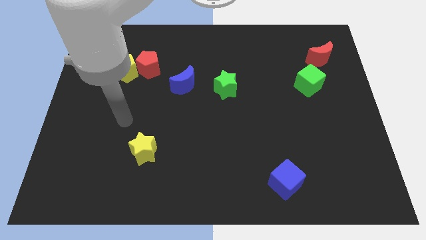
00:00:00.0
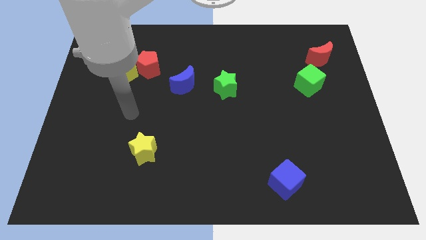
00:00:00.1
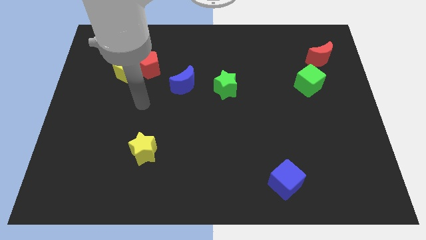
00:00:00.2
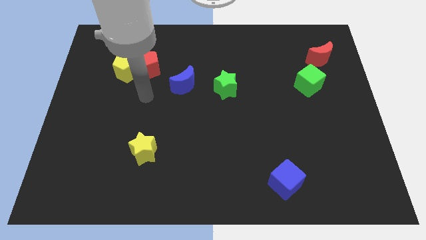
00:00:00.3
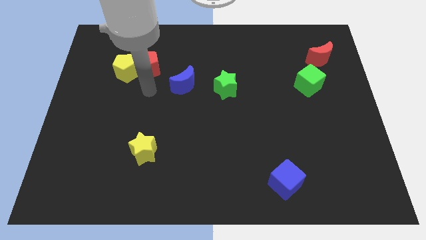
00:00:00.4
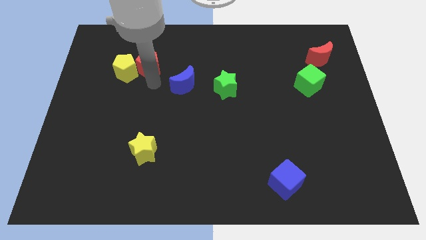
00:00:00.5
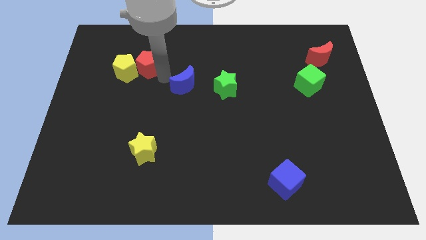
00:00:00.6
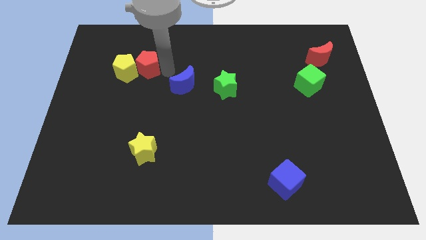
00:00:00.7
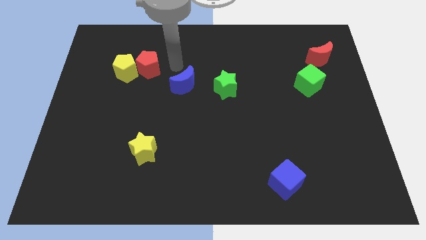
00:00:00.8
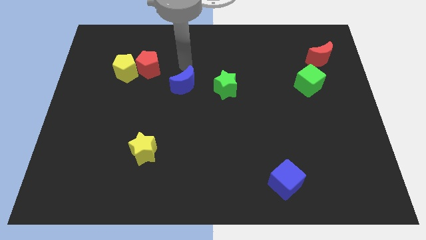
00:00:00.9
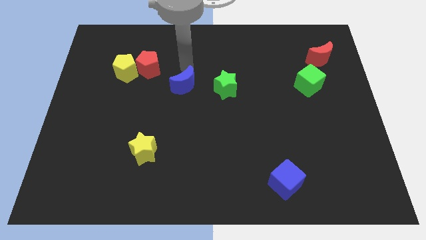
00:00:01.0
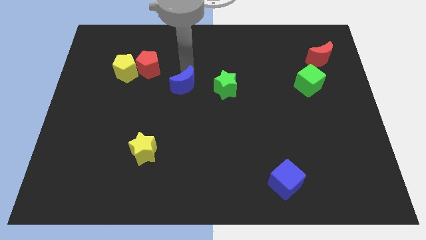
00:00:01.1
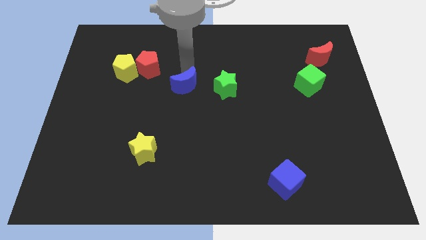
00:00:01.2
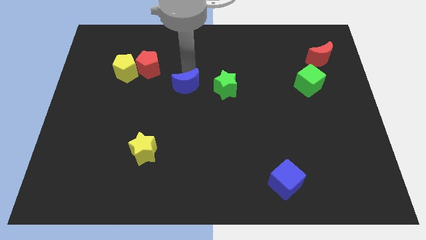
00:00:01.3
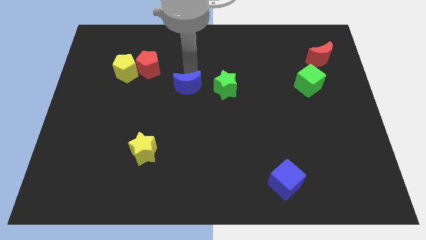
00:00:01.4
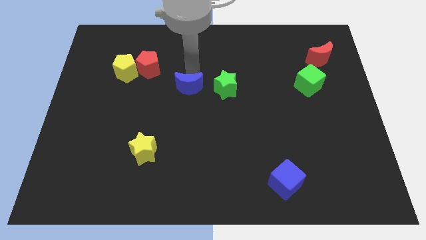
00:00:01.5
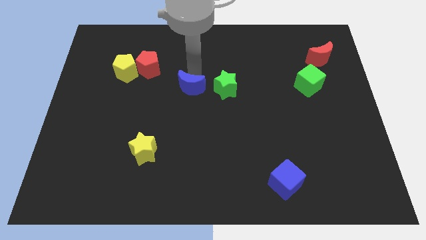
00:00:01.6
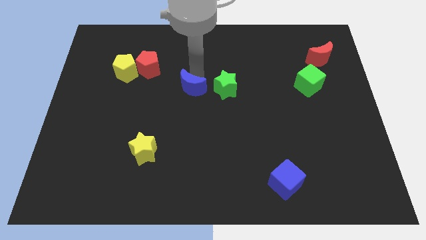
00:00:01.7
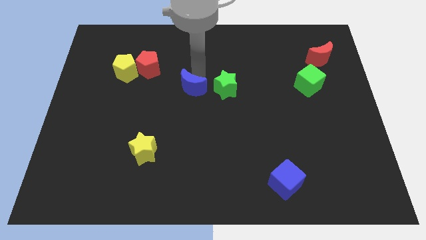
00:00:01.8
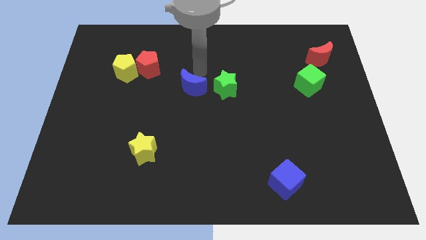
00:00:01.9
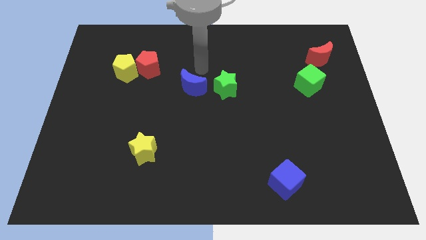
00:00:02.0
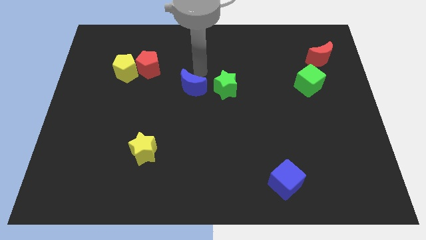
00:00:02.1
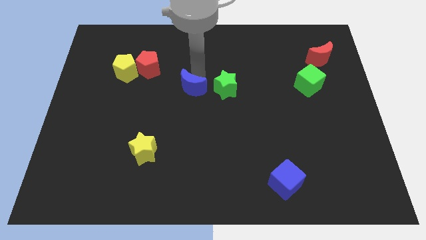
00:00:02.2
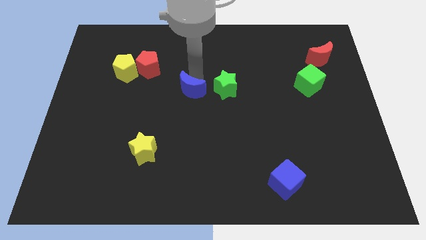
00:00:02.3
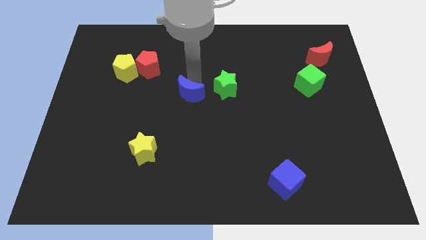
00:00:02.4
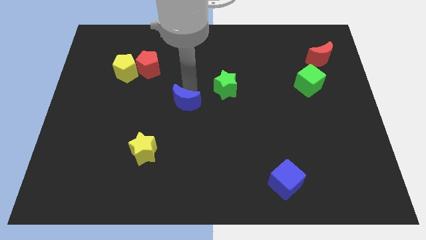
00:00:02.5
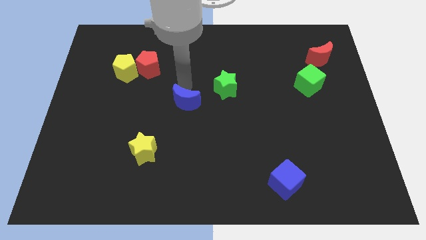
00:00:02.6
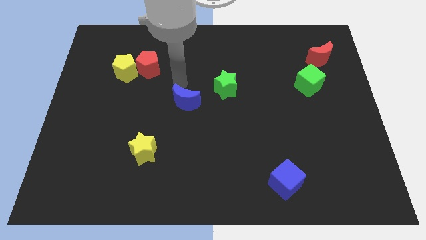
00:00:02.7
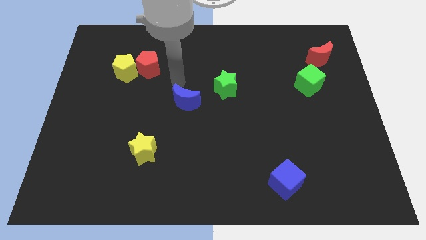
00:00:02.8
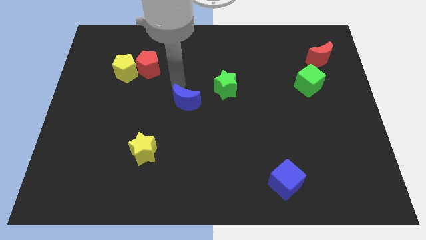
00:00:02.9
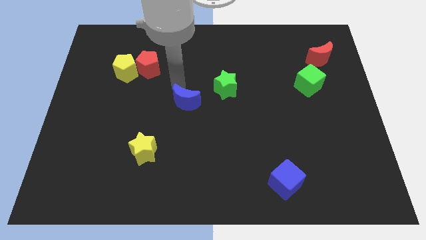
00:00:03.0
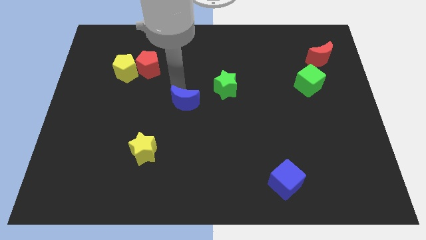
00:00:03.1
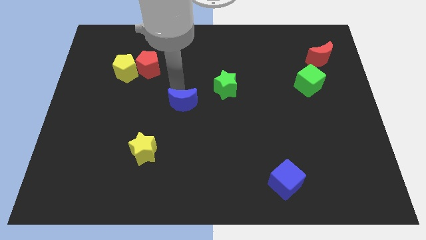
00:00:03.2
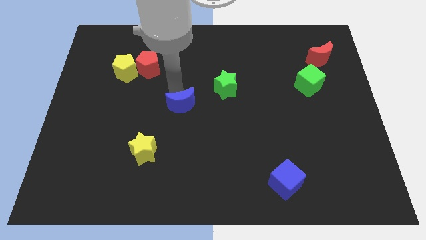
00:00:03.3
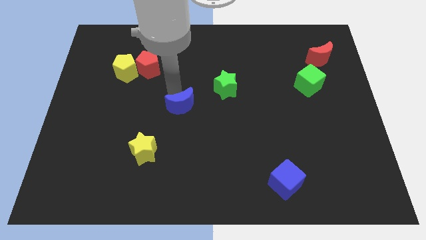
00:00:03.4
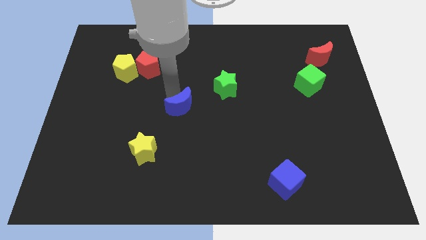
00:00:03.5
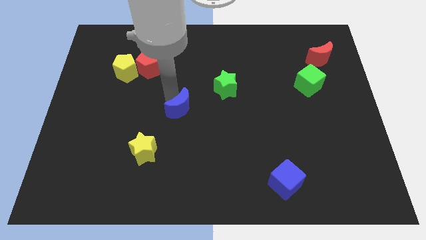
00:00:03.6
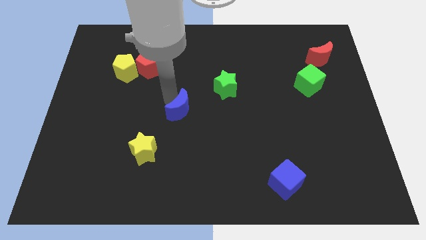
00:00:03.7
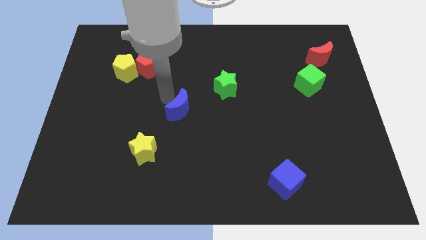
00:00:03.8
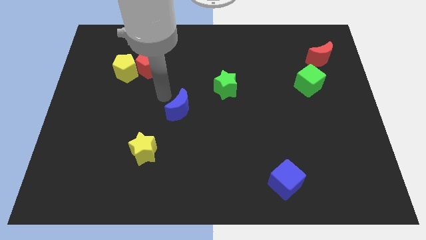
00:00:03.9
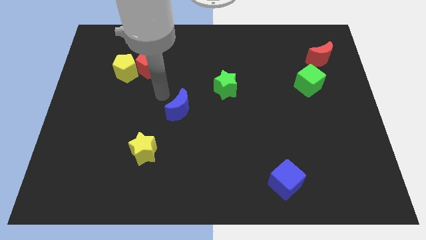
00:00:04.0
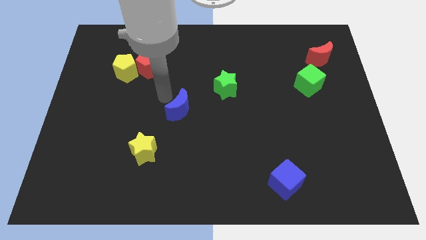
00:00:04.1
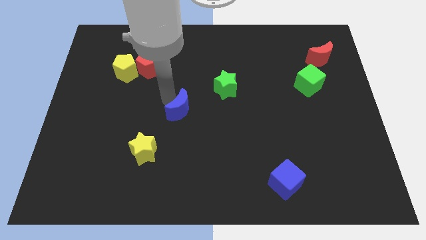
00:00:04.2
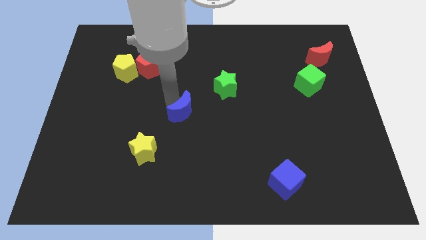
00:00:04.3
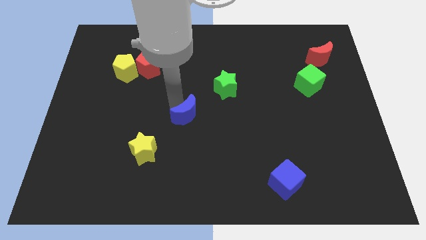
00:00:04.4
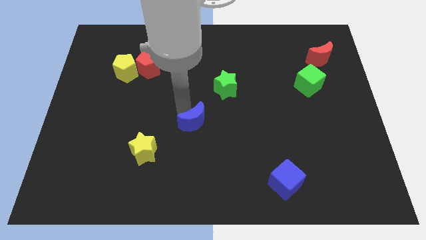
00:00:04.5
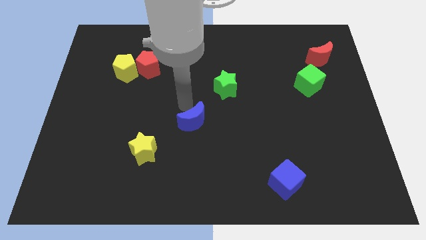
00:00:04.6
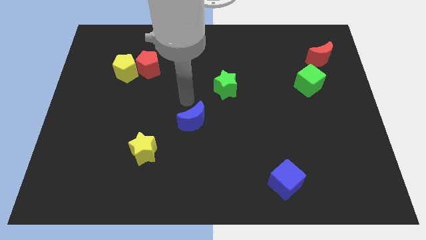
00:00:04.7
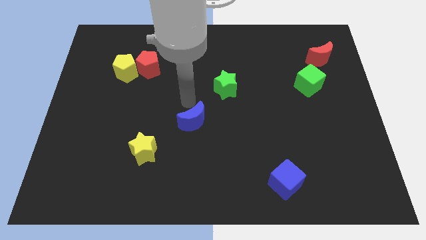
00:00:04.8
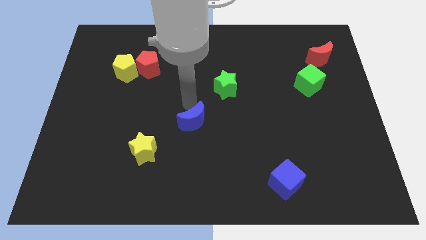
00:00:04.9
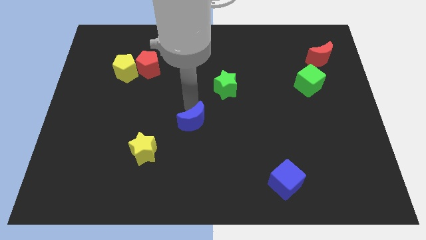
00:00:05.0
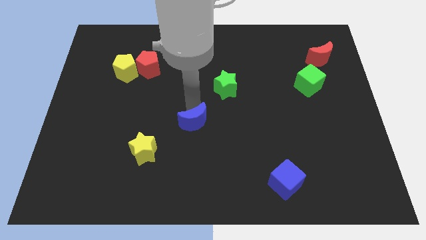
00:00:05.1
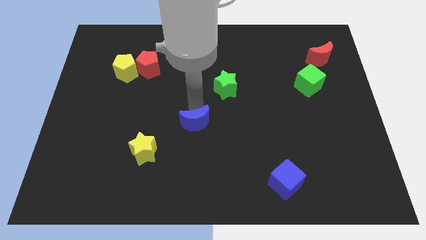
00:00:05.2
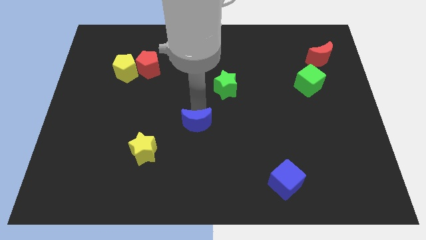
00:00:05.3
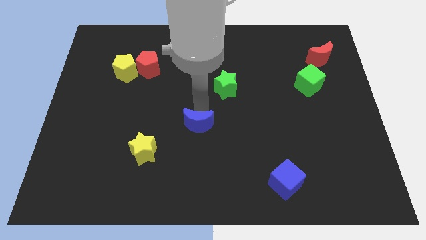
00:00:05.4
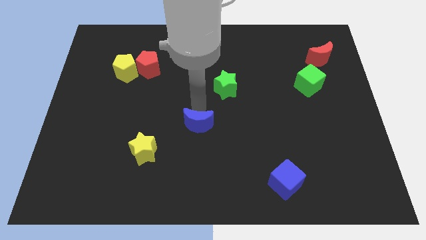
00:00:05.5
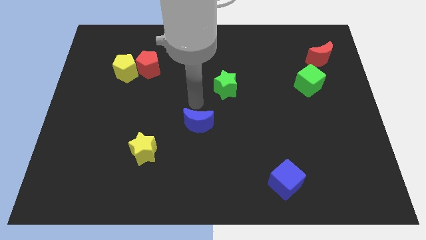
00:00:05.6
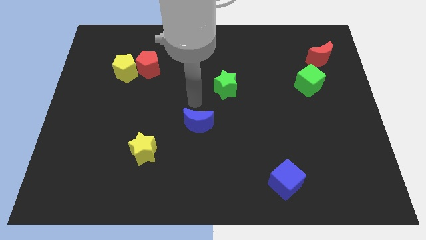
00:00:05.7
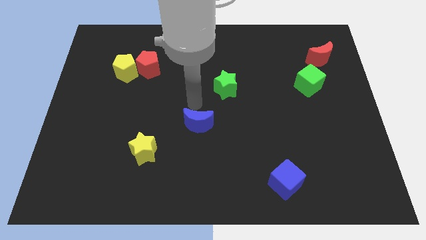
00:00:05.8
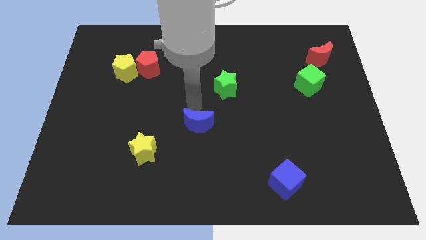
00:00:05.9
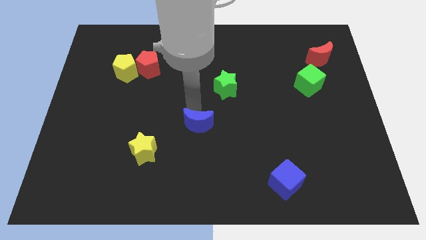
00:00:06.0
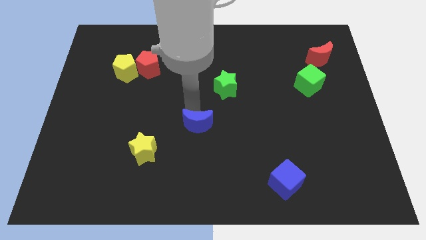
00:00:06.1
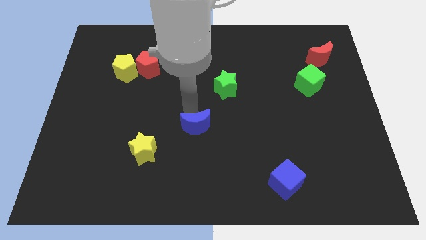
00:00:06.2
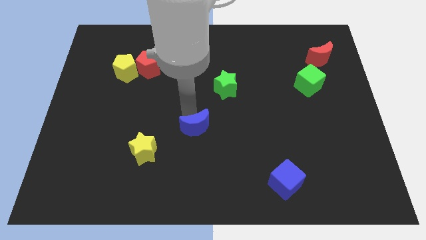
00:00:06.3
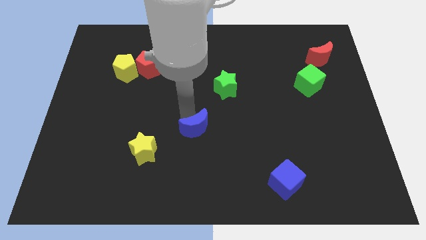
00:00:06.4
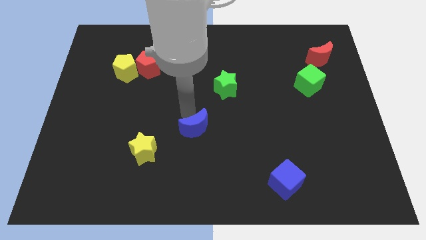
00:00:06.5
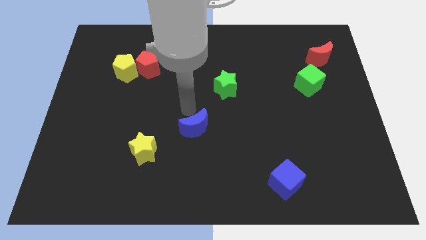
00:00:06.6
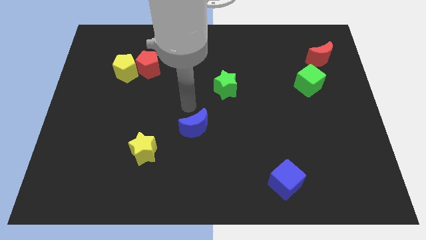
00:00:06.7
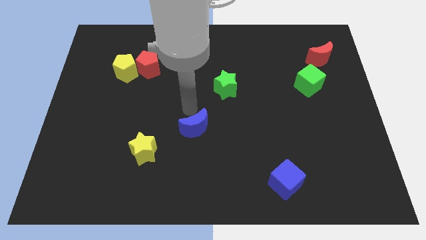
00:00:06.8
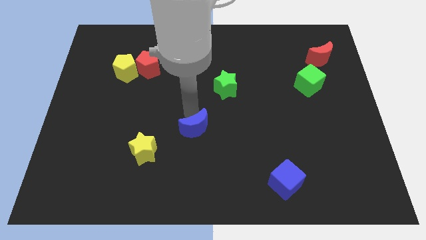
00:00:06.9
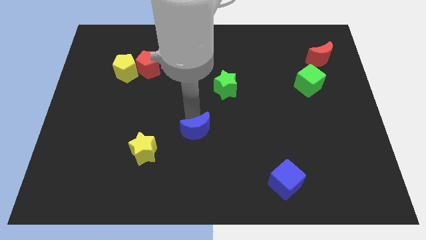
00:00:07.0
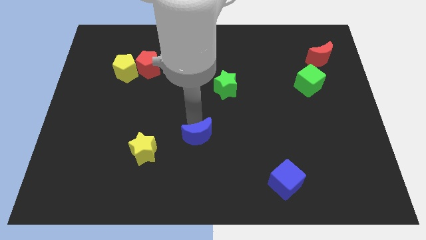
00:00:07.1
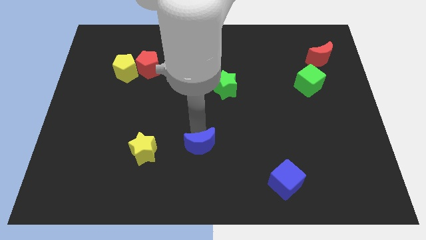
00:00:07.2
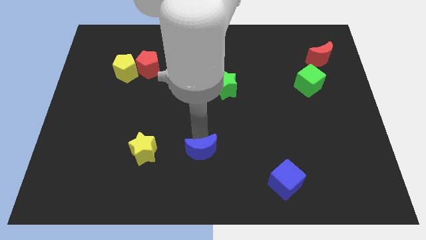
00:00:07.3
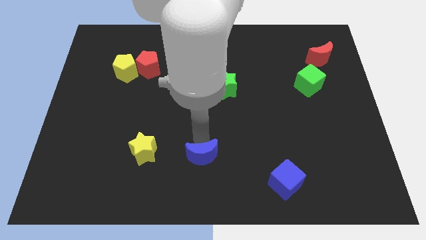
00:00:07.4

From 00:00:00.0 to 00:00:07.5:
move the blue moon to the bottom side
